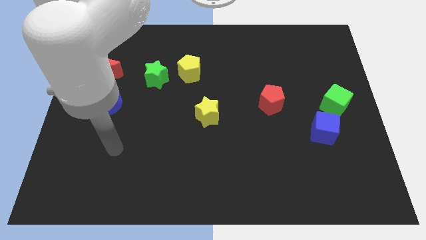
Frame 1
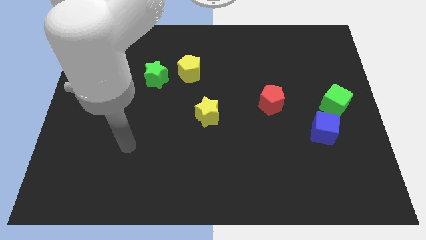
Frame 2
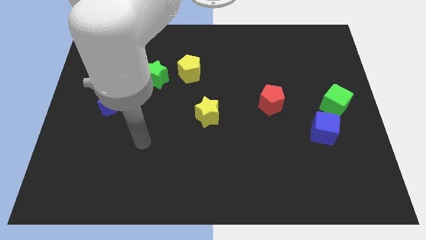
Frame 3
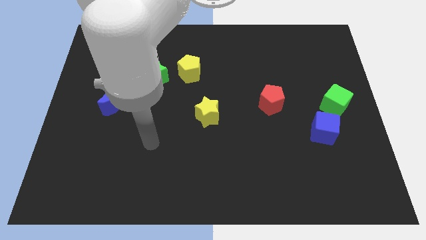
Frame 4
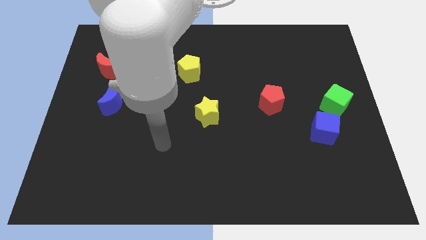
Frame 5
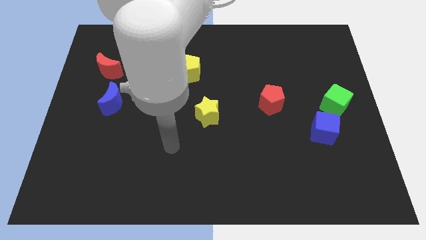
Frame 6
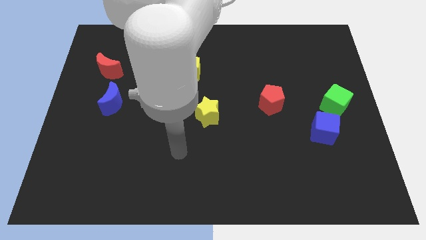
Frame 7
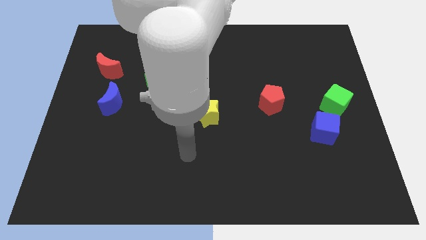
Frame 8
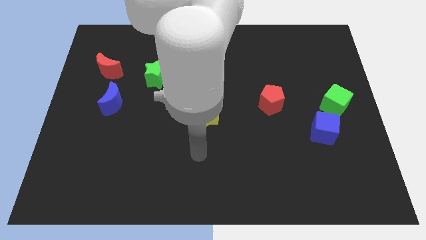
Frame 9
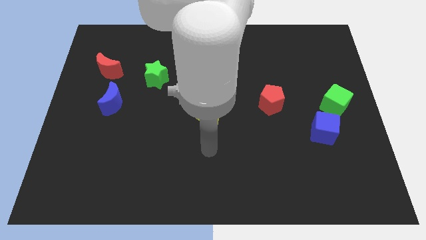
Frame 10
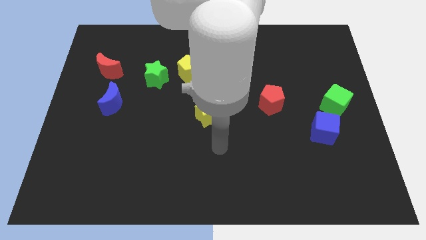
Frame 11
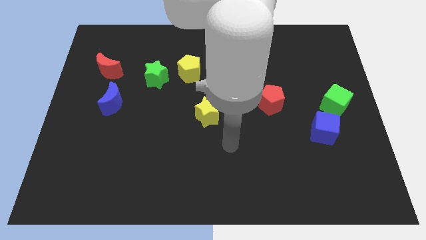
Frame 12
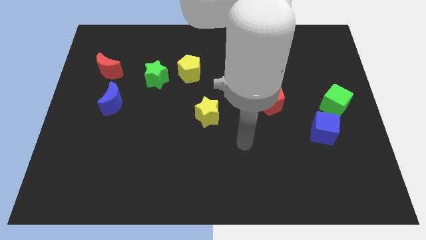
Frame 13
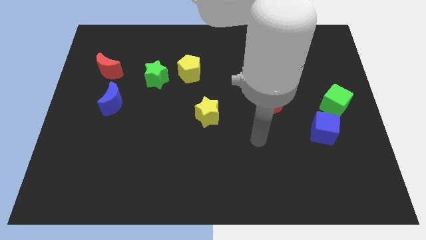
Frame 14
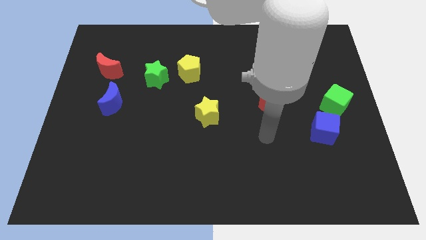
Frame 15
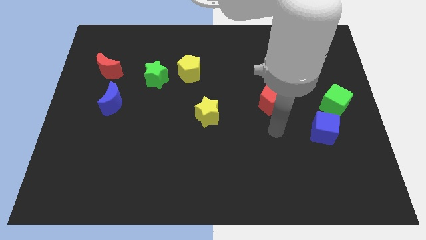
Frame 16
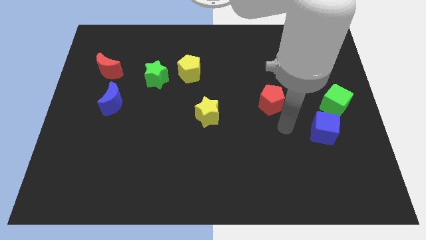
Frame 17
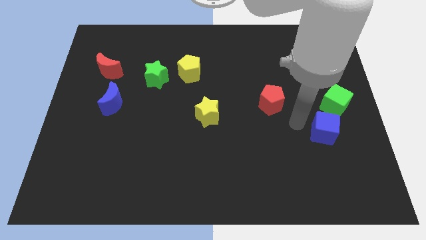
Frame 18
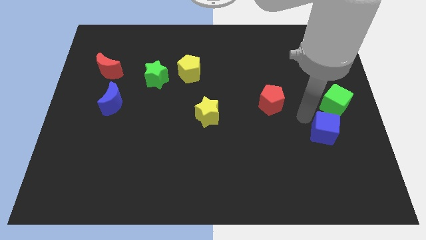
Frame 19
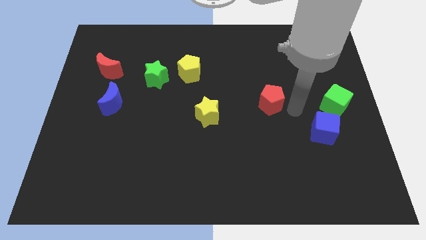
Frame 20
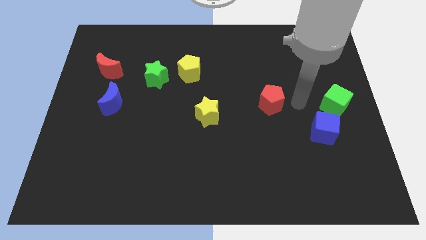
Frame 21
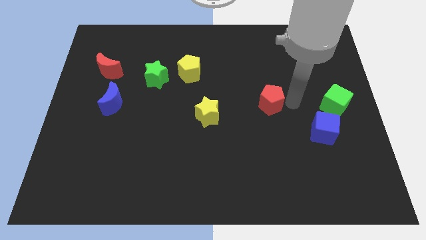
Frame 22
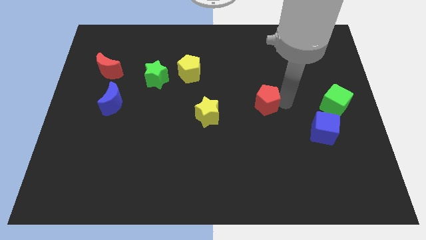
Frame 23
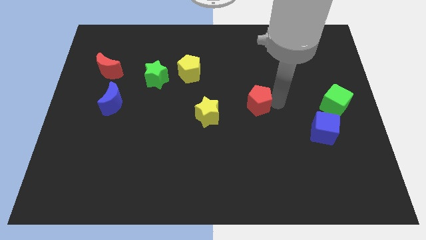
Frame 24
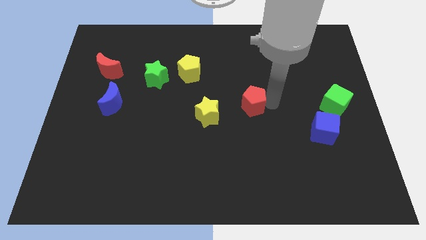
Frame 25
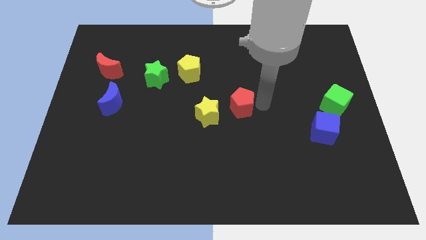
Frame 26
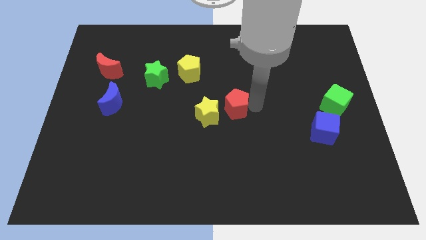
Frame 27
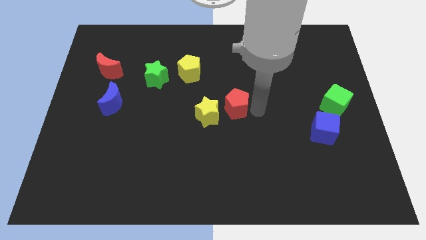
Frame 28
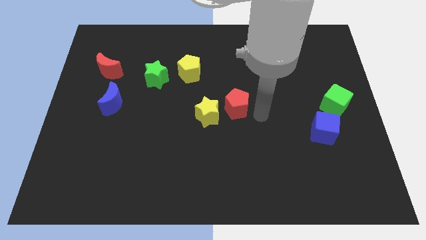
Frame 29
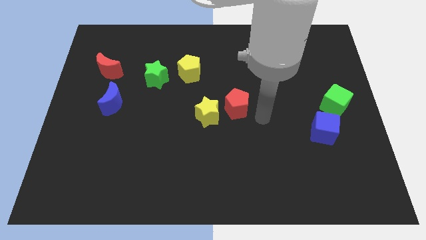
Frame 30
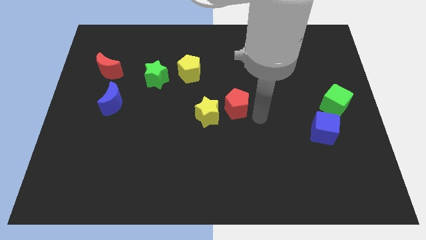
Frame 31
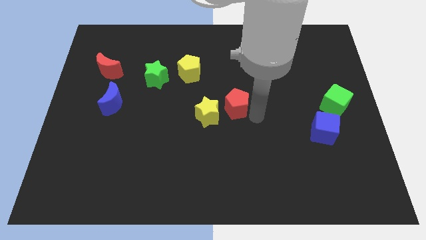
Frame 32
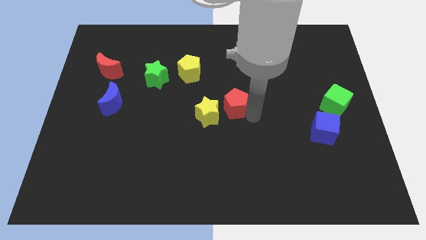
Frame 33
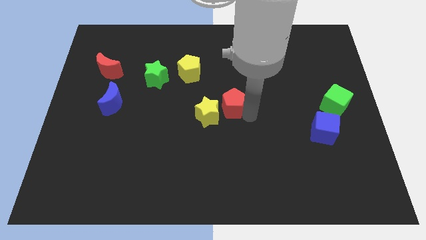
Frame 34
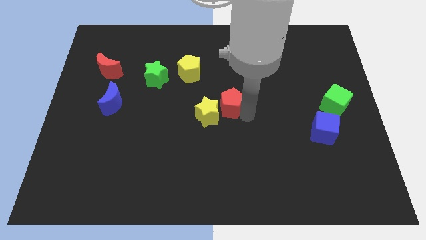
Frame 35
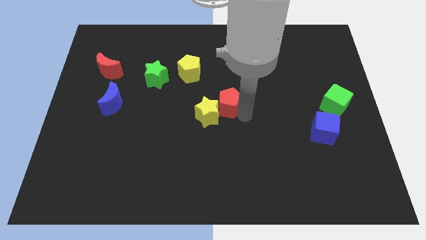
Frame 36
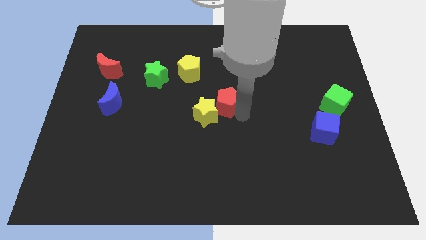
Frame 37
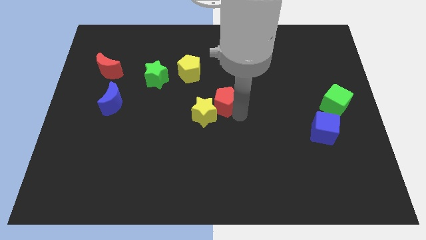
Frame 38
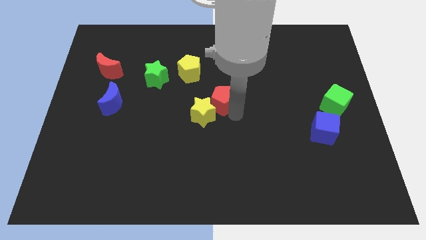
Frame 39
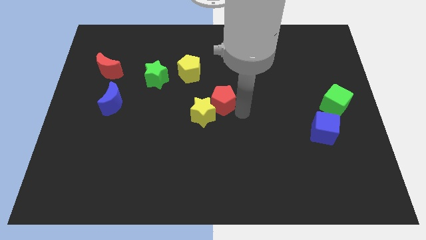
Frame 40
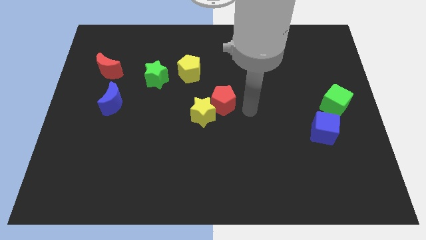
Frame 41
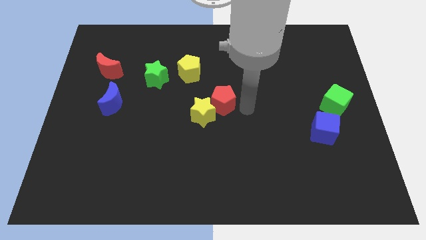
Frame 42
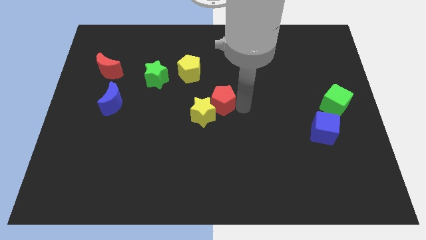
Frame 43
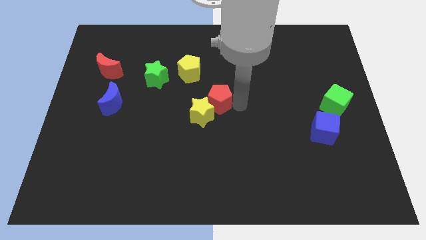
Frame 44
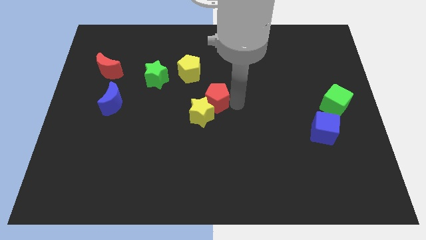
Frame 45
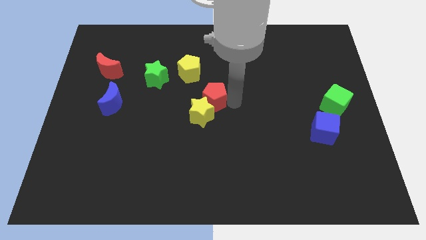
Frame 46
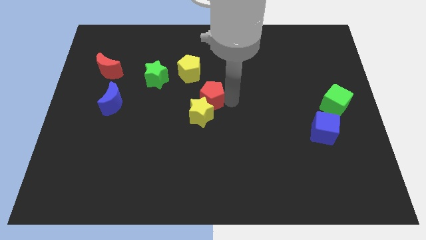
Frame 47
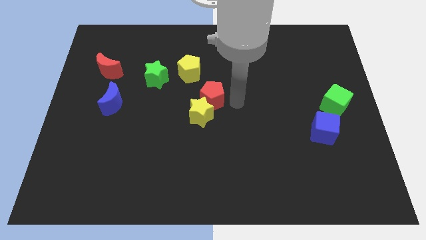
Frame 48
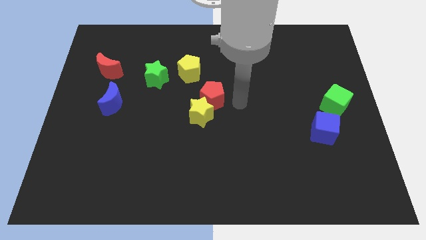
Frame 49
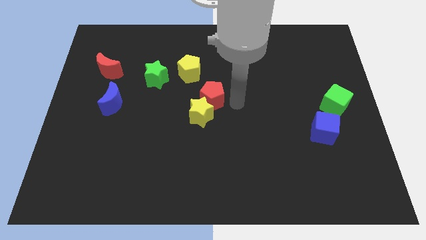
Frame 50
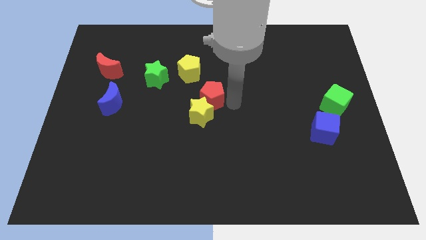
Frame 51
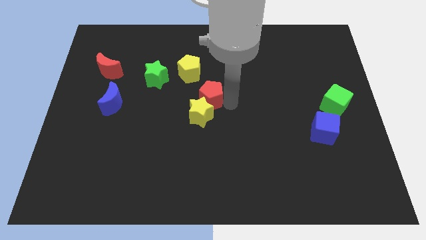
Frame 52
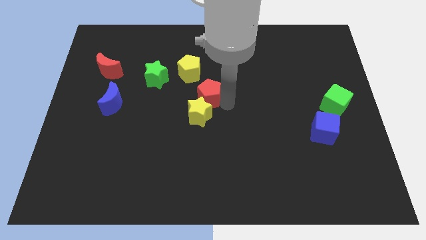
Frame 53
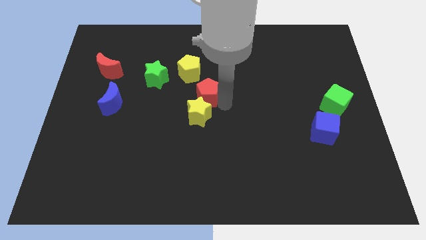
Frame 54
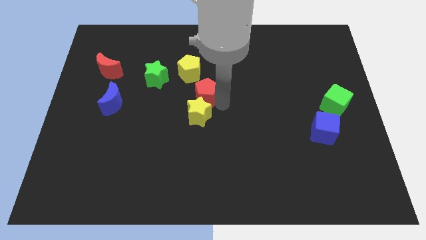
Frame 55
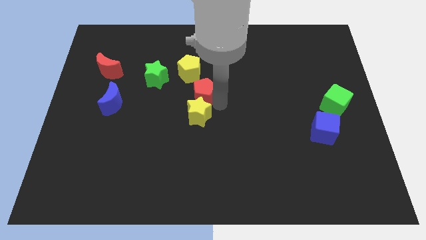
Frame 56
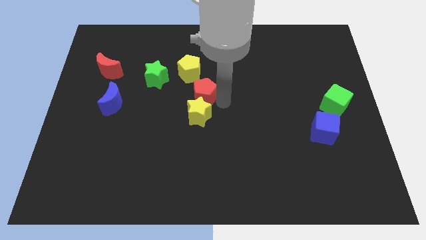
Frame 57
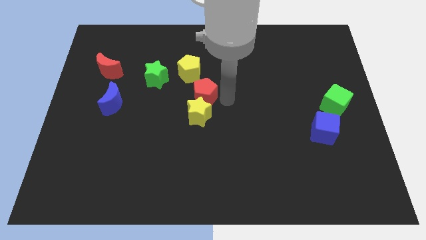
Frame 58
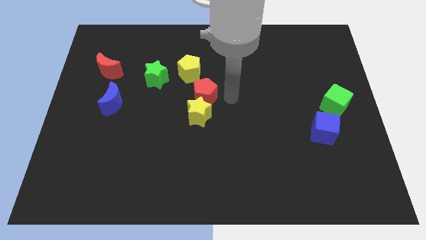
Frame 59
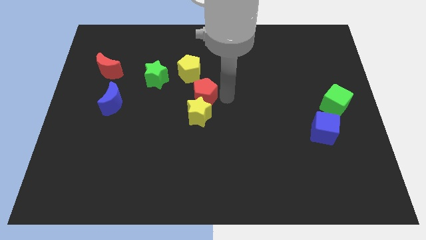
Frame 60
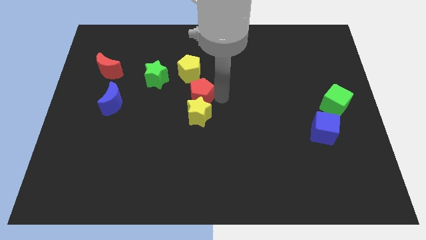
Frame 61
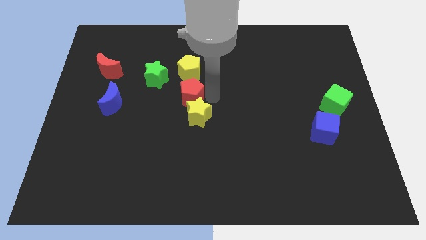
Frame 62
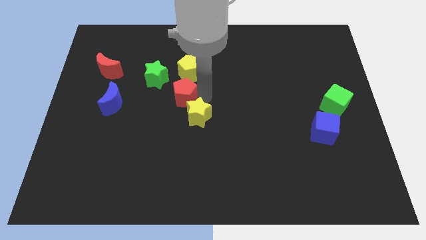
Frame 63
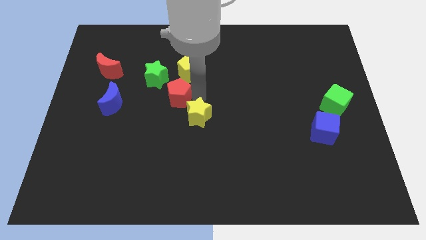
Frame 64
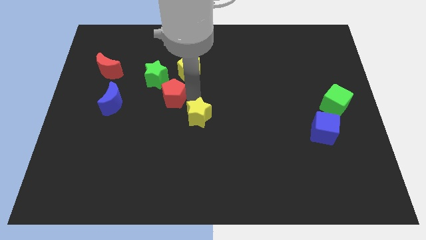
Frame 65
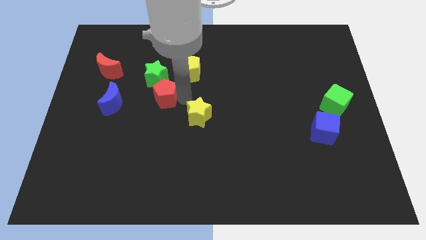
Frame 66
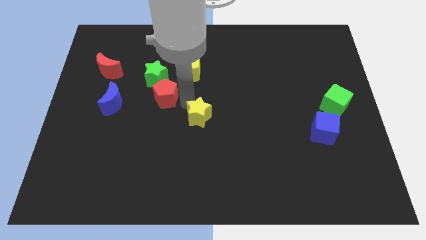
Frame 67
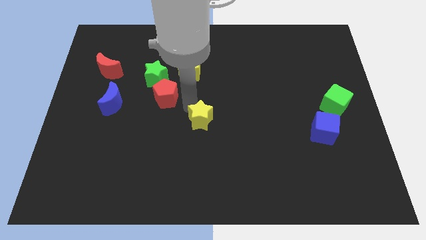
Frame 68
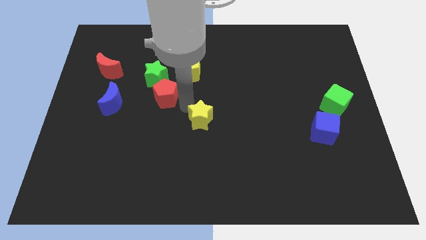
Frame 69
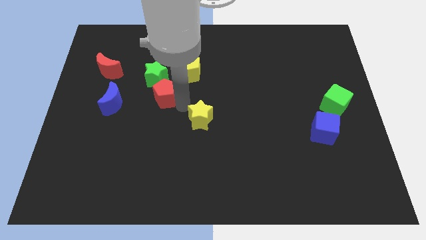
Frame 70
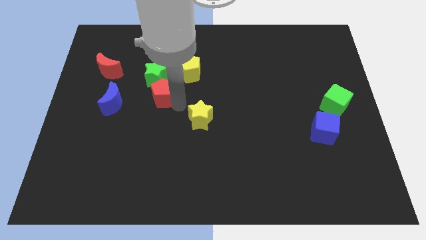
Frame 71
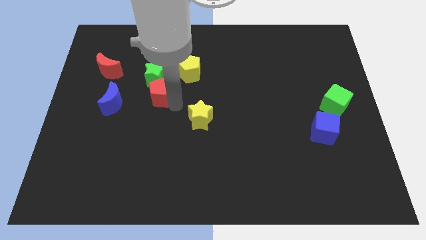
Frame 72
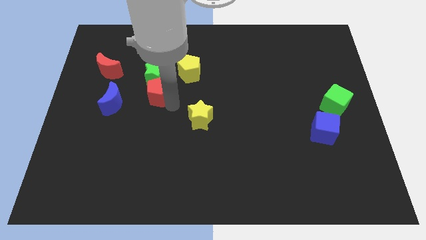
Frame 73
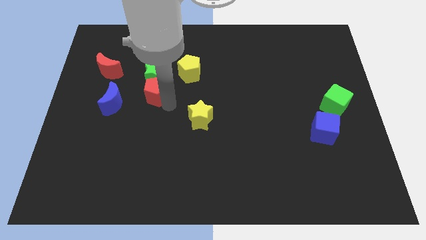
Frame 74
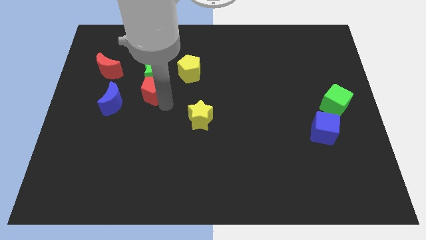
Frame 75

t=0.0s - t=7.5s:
move the red pentagon to the top right of the blue moon
